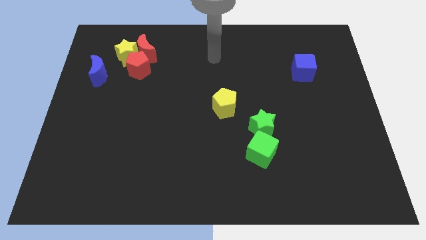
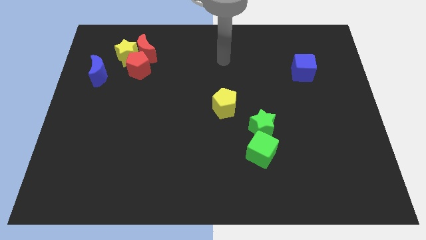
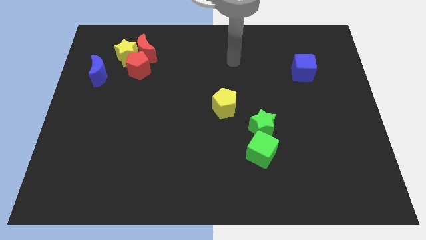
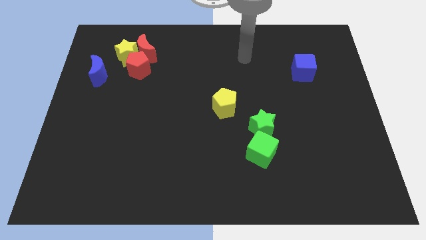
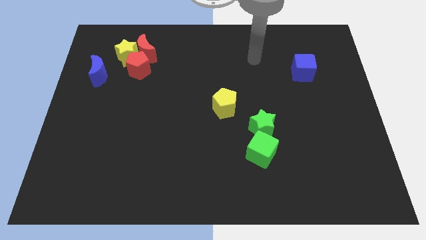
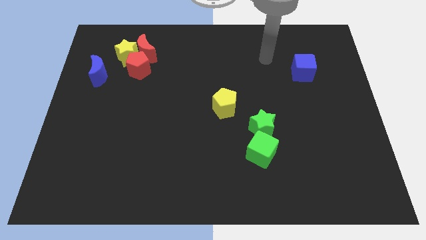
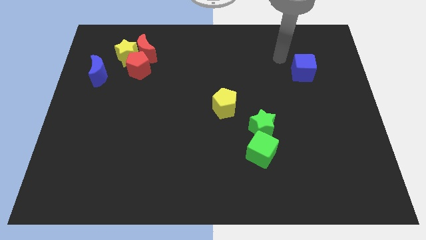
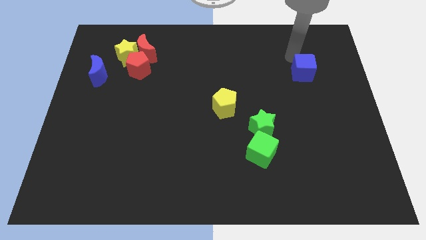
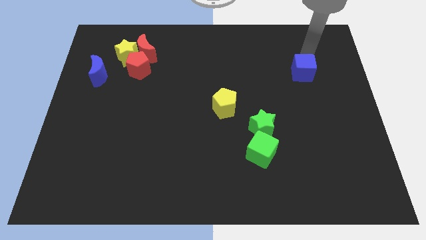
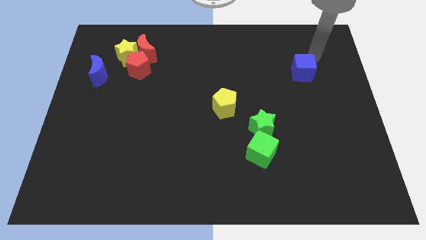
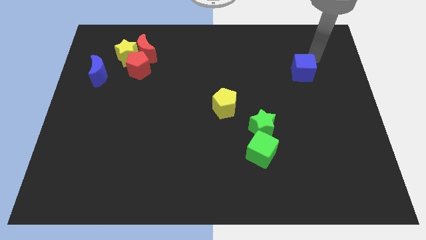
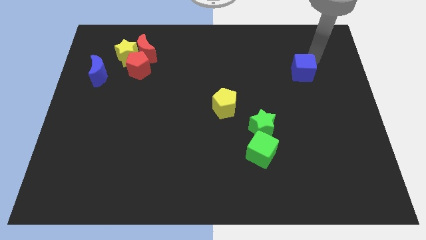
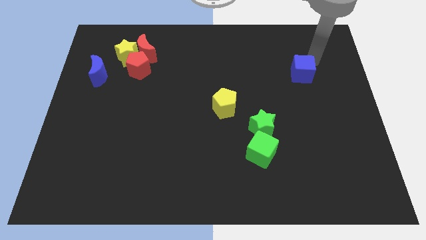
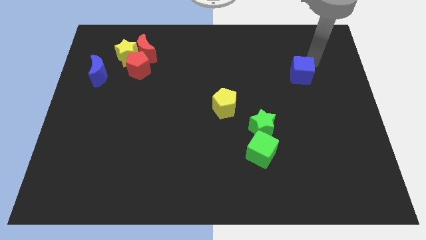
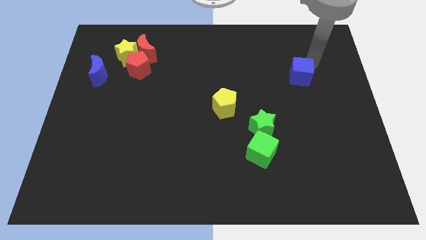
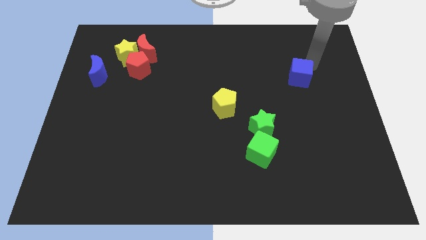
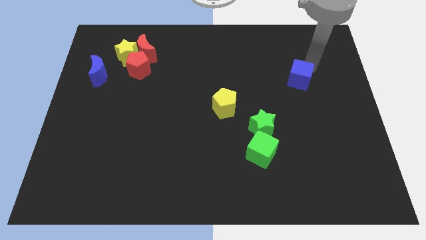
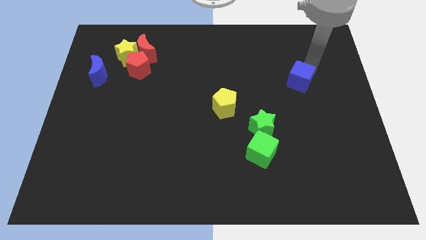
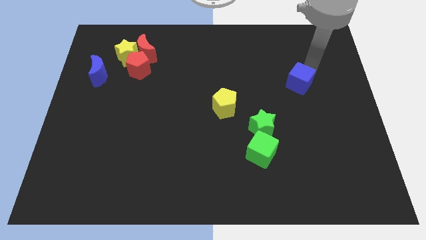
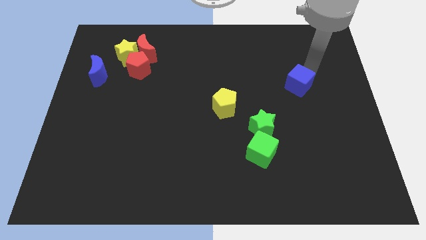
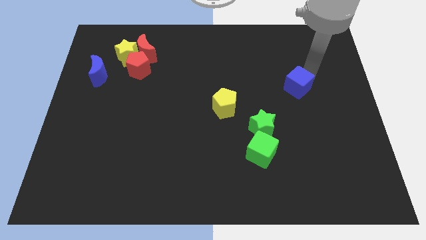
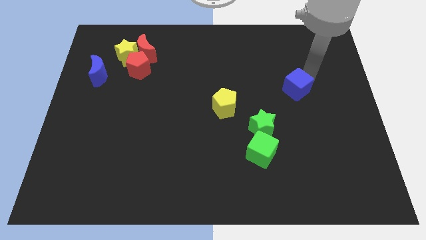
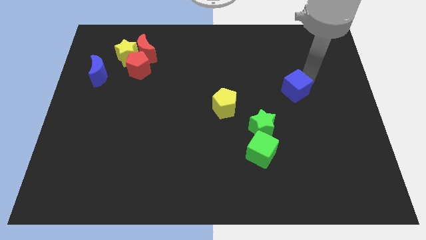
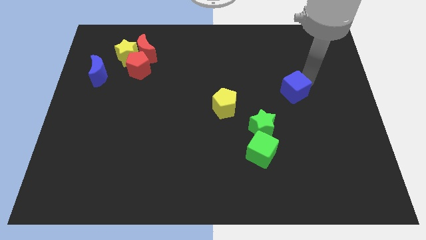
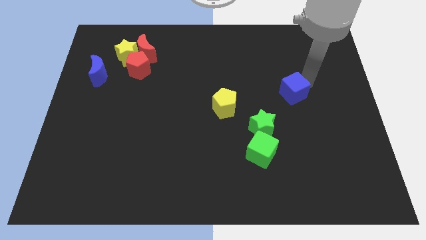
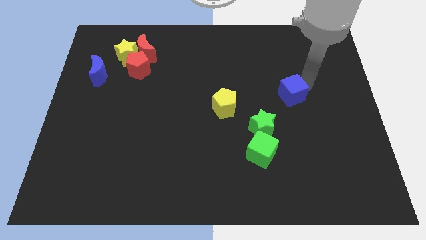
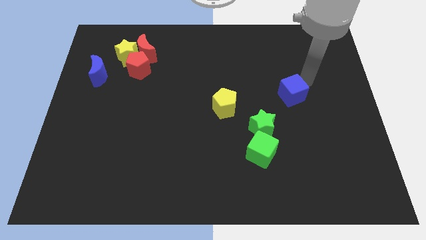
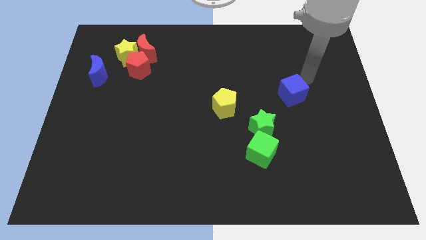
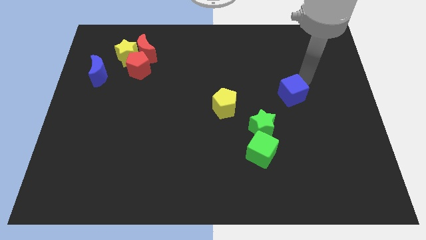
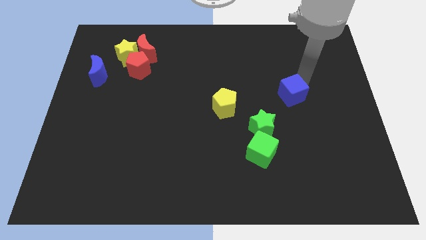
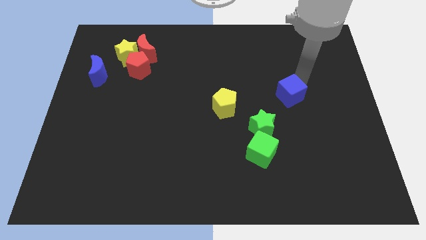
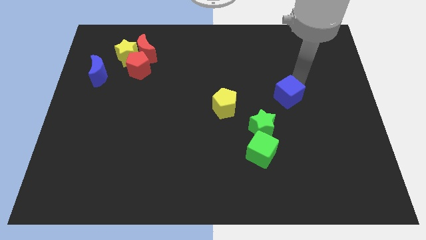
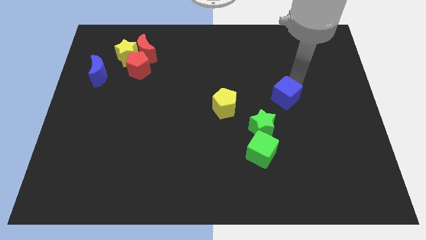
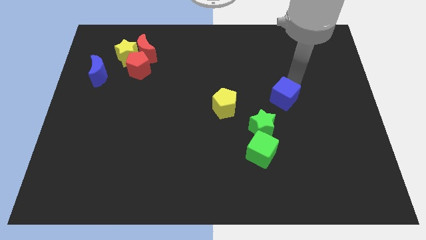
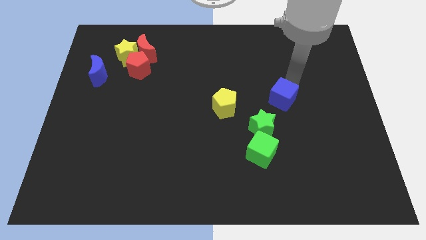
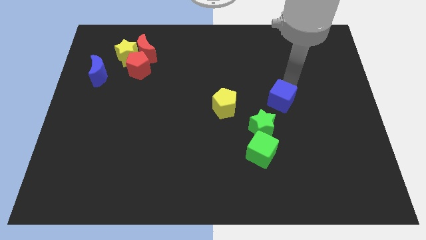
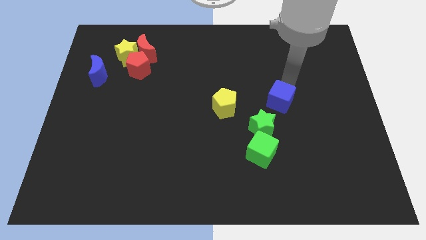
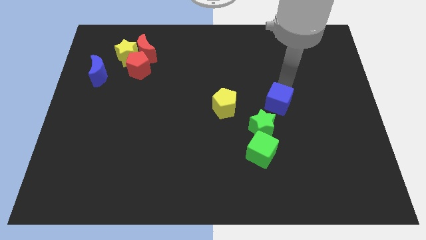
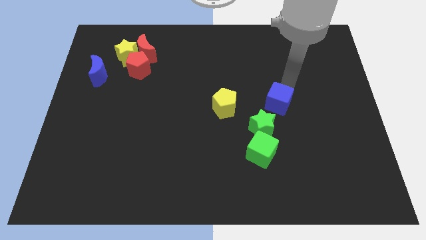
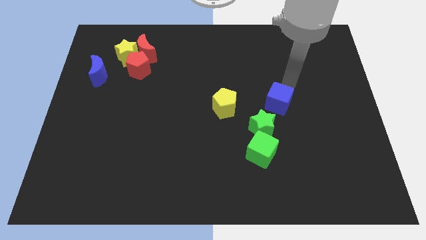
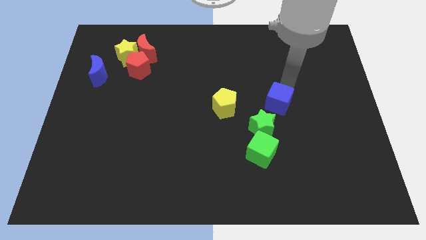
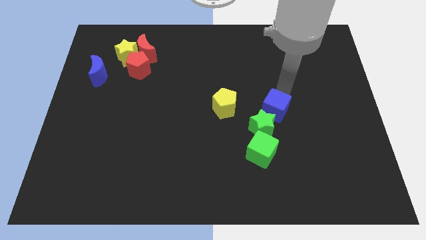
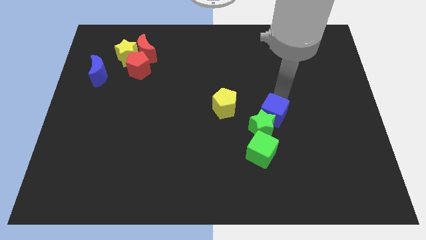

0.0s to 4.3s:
put the blue cube towards the green star

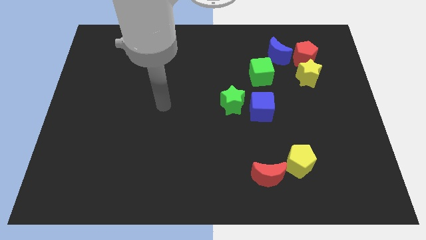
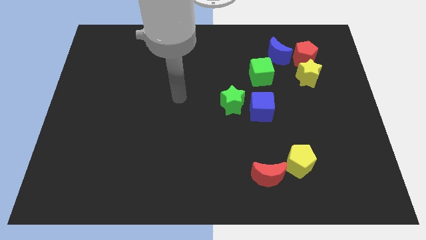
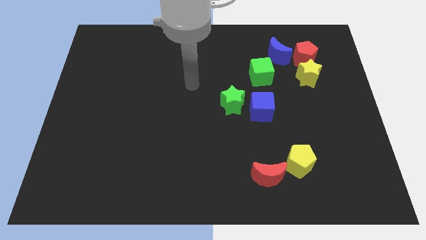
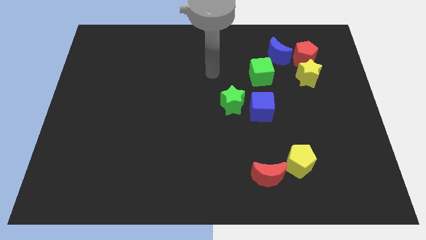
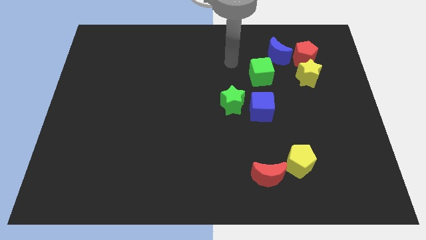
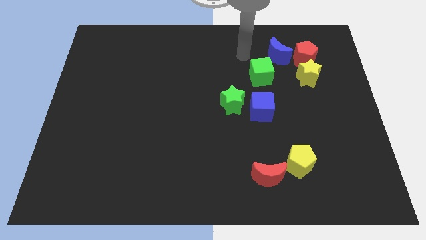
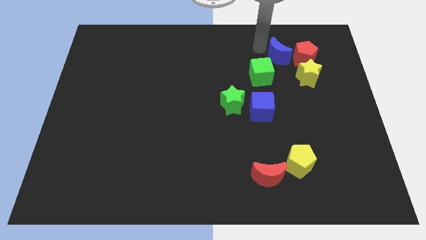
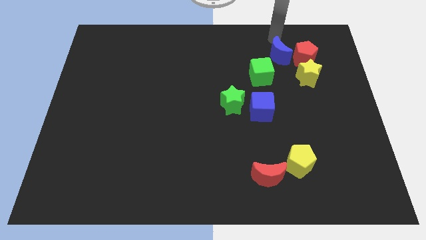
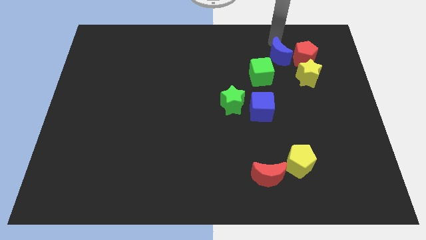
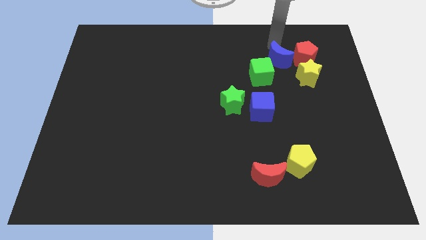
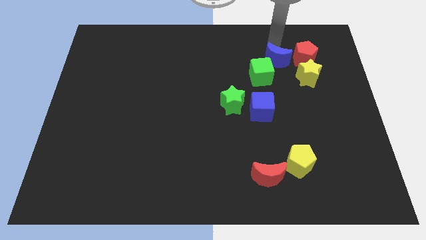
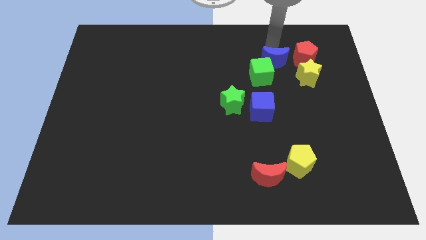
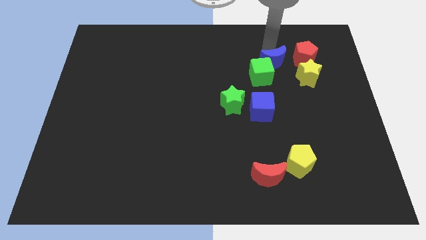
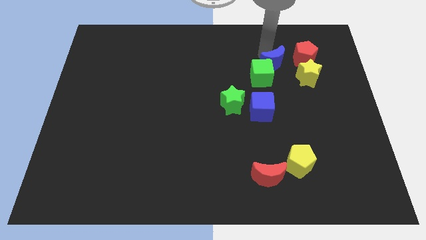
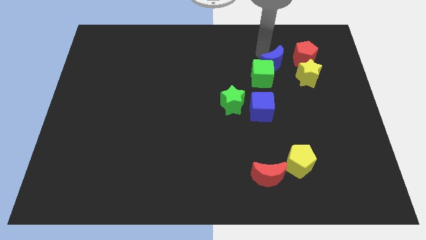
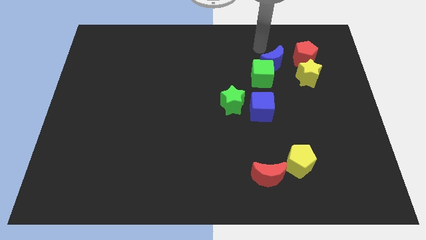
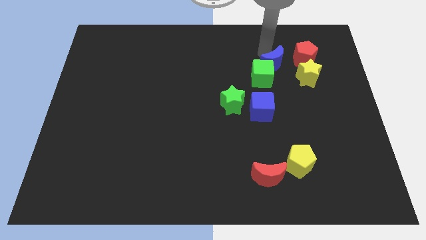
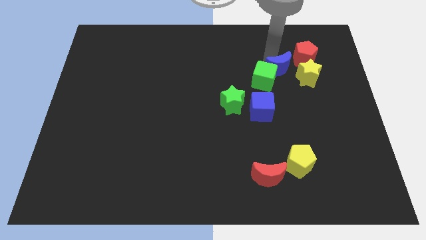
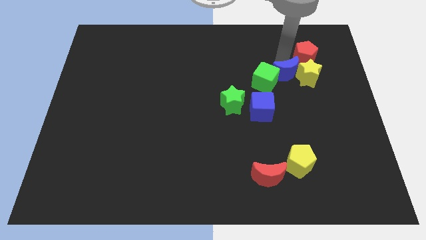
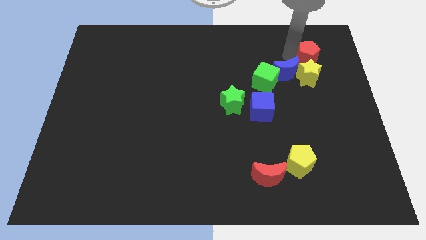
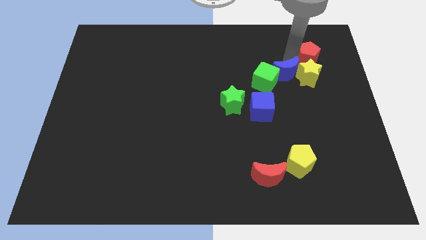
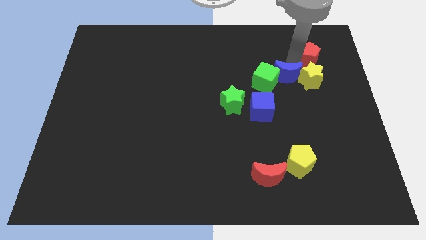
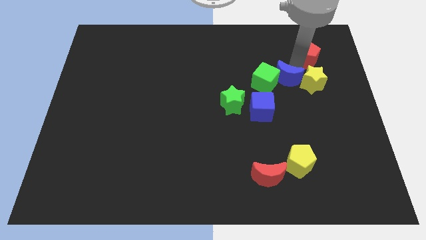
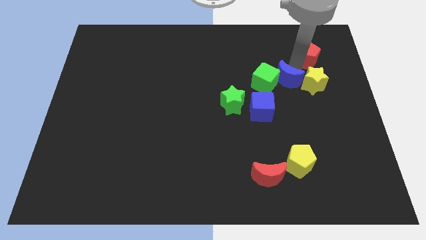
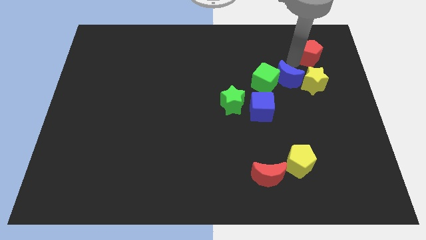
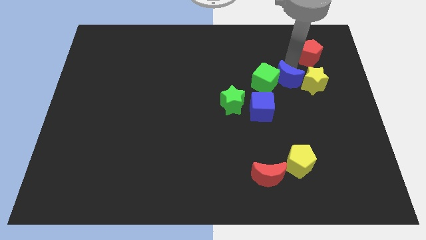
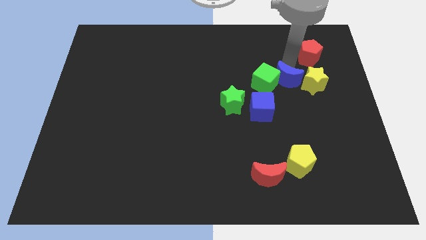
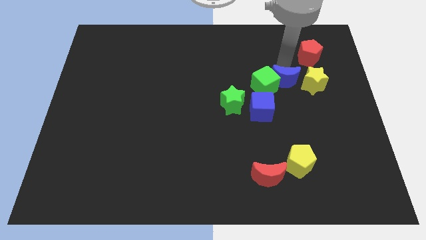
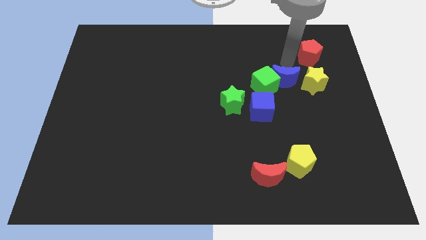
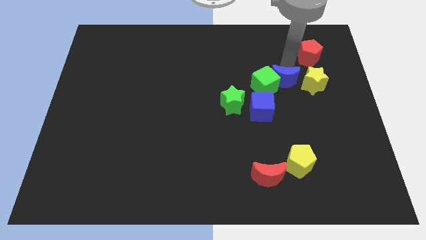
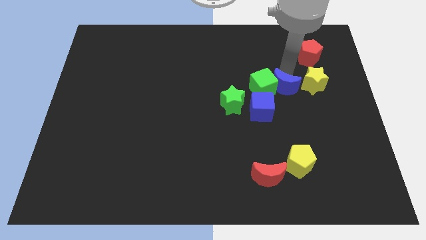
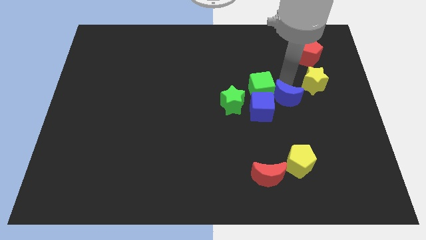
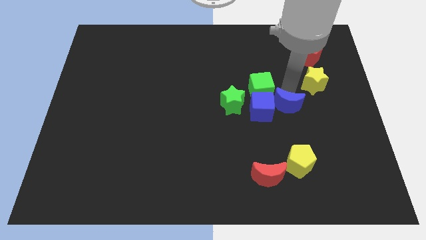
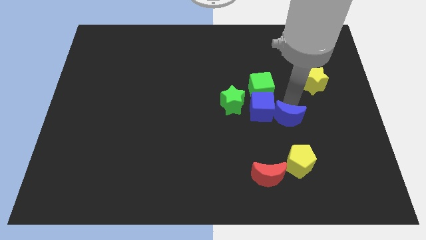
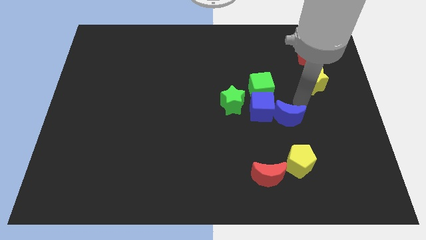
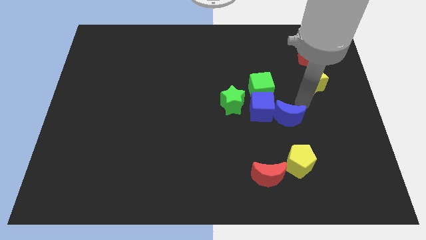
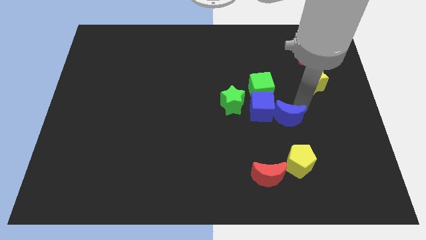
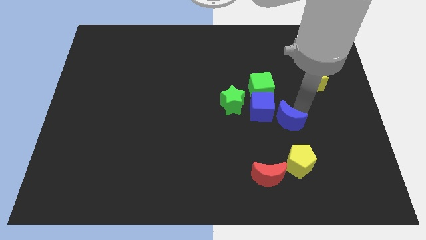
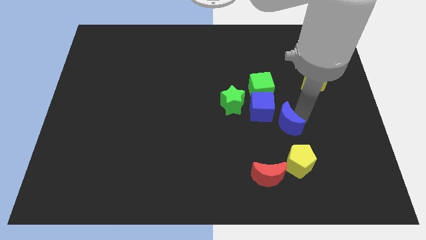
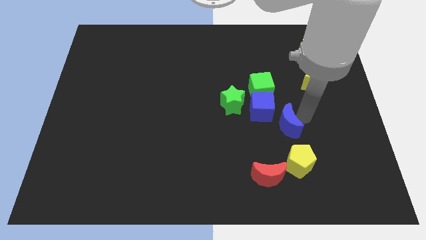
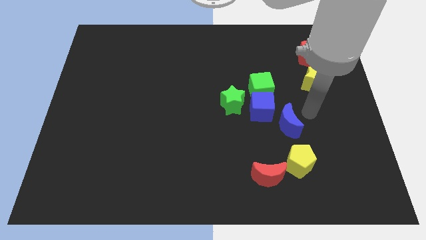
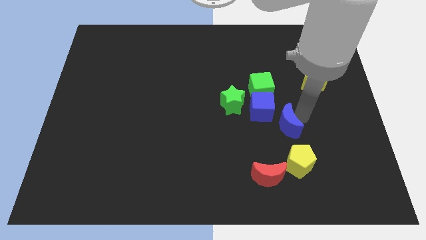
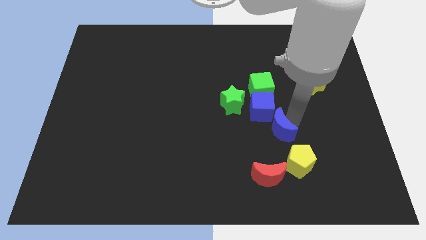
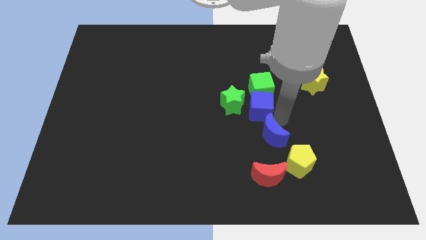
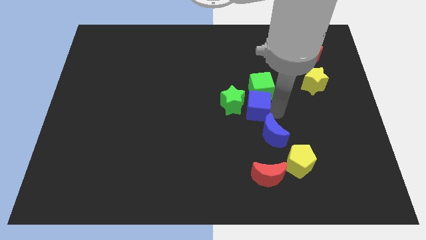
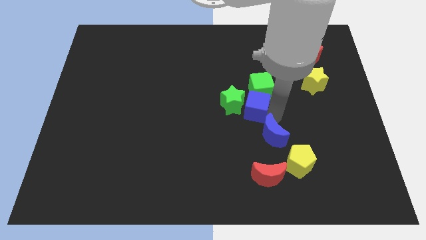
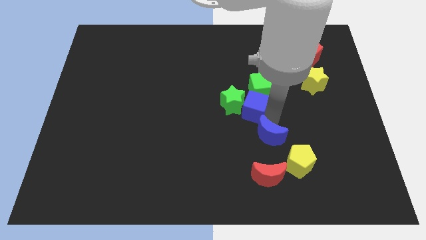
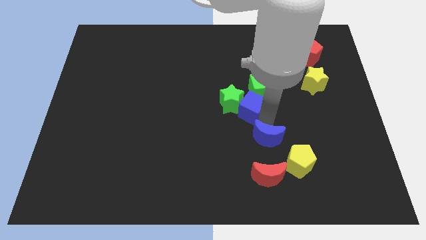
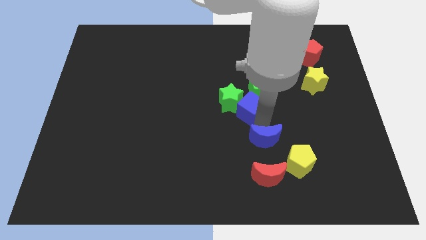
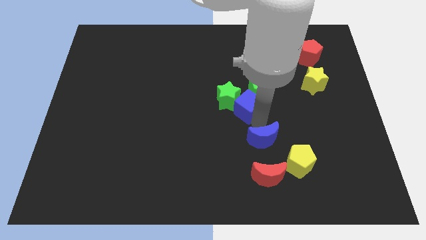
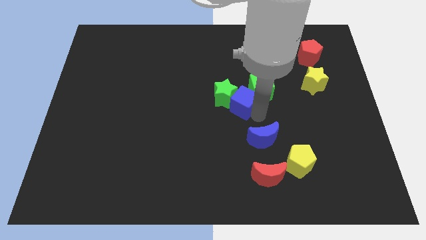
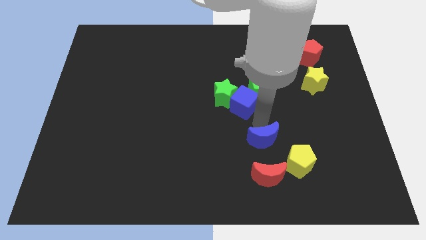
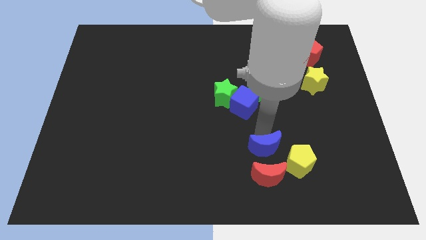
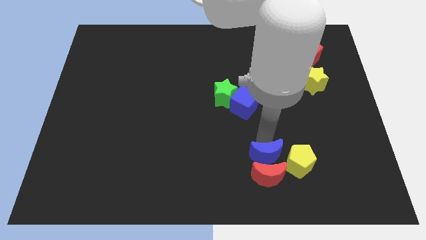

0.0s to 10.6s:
push the blue moon next to the red moon
